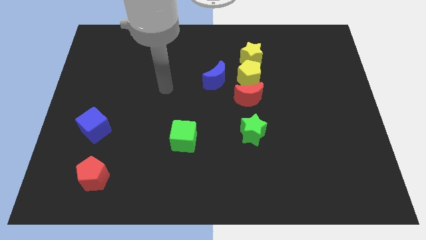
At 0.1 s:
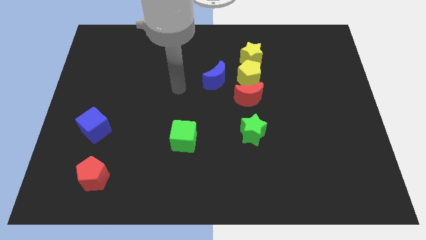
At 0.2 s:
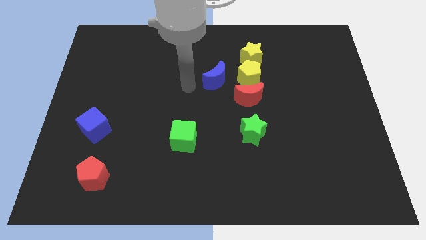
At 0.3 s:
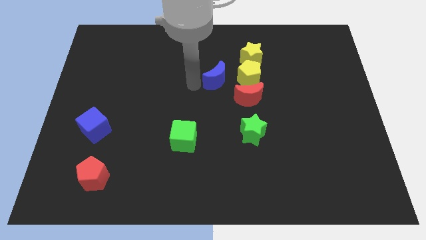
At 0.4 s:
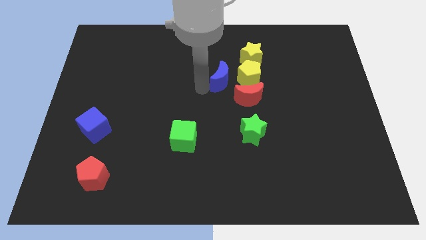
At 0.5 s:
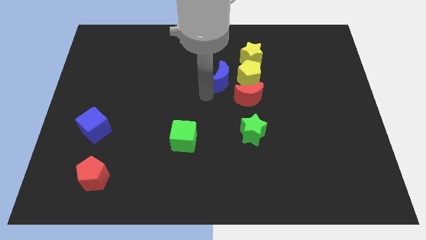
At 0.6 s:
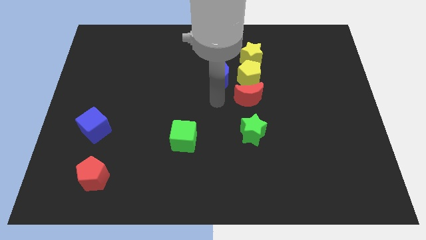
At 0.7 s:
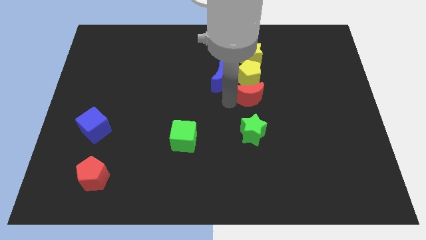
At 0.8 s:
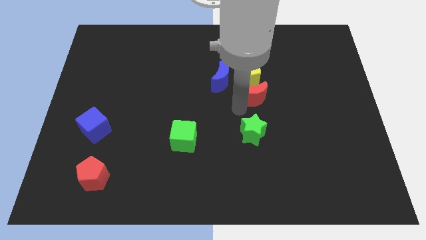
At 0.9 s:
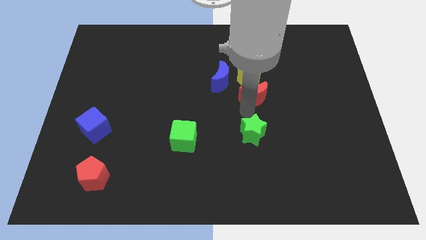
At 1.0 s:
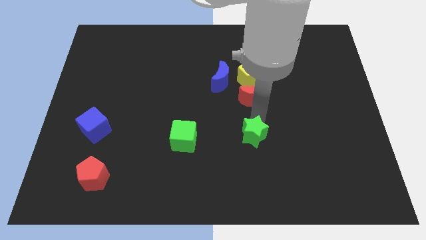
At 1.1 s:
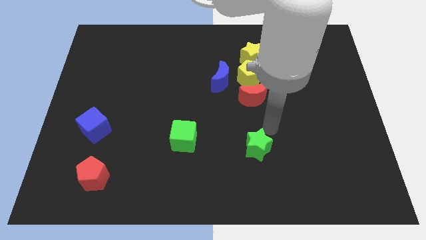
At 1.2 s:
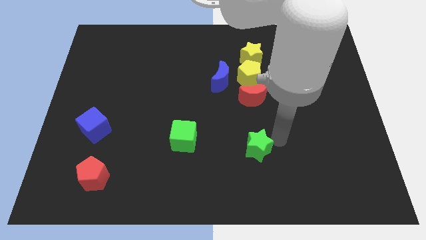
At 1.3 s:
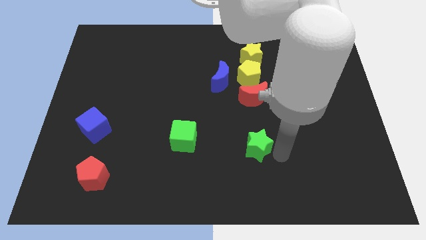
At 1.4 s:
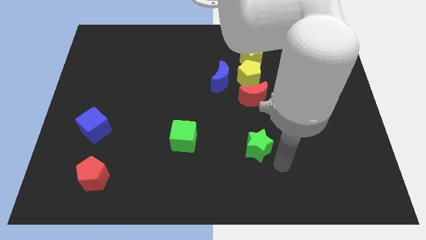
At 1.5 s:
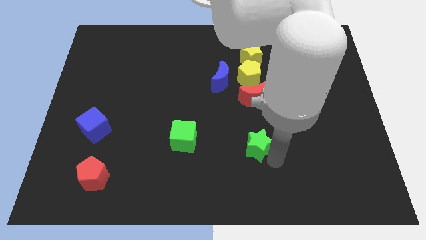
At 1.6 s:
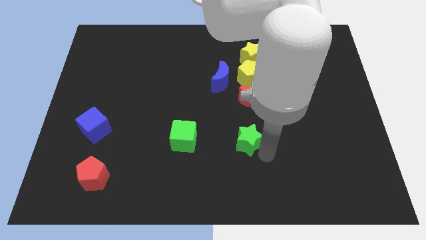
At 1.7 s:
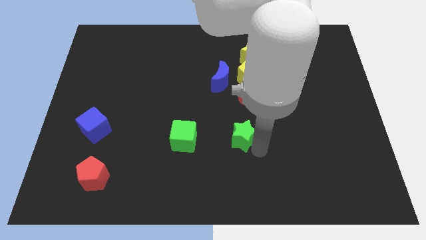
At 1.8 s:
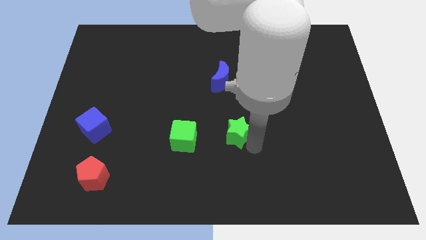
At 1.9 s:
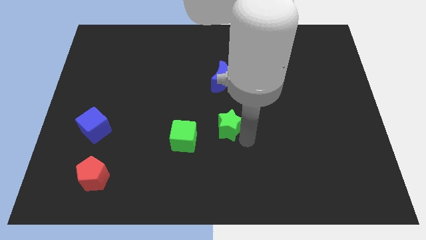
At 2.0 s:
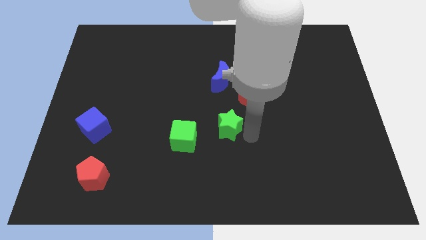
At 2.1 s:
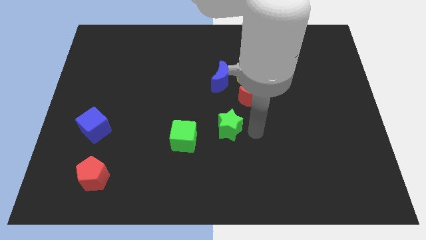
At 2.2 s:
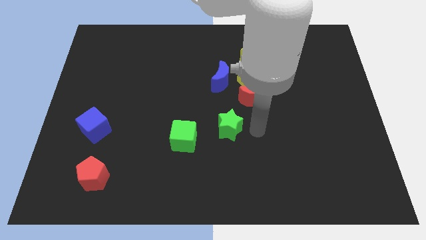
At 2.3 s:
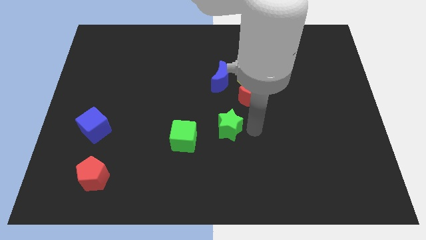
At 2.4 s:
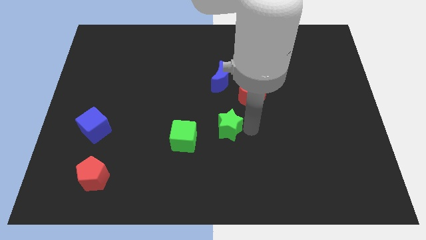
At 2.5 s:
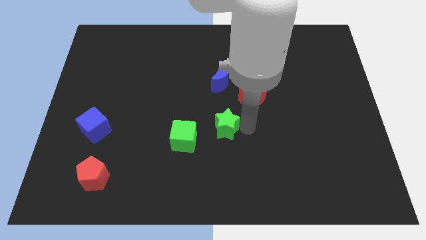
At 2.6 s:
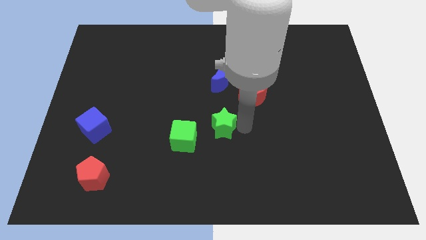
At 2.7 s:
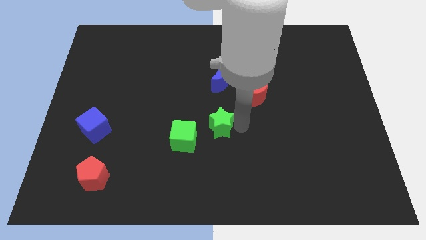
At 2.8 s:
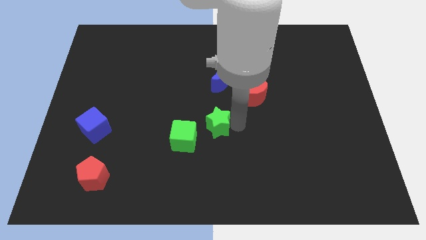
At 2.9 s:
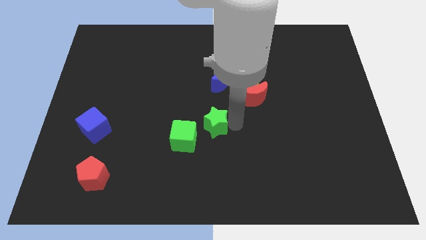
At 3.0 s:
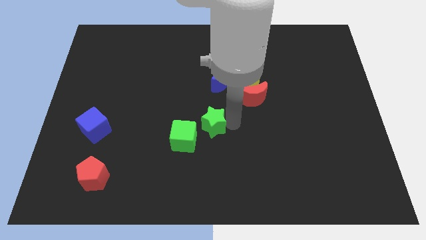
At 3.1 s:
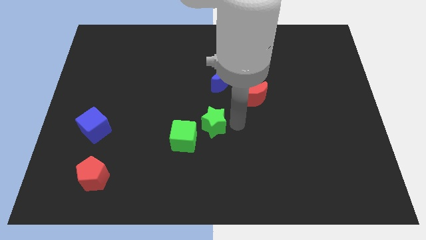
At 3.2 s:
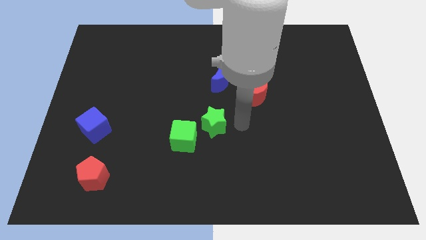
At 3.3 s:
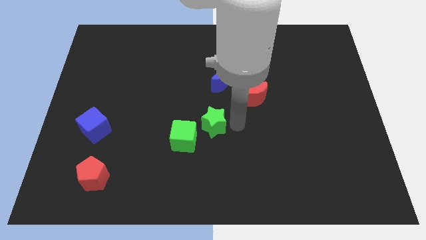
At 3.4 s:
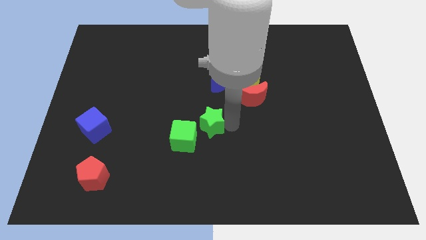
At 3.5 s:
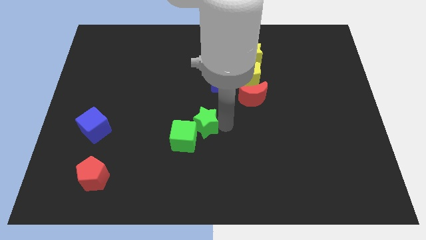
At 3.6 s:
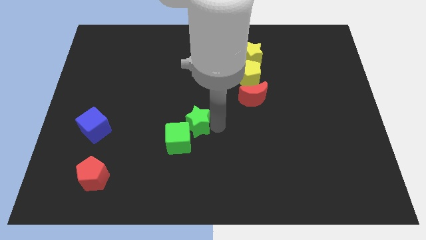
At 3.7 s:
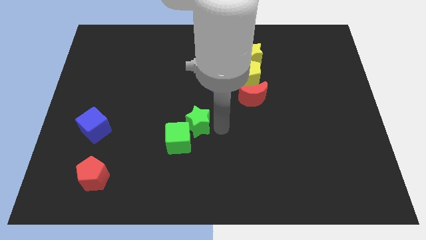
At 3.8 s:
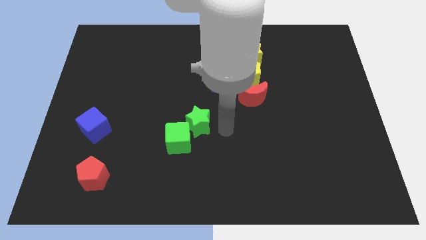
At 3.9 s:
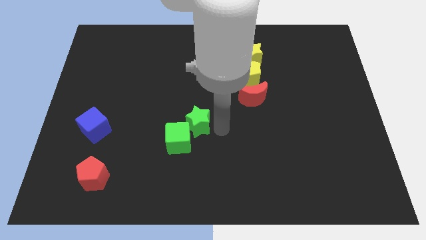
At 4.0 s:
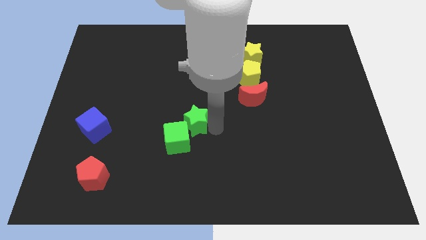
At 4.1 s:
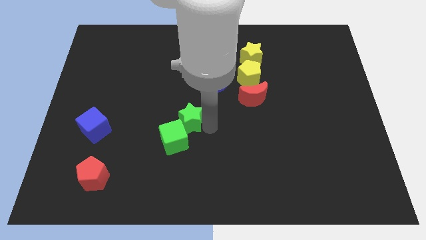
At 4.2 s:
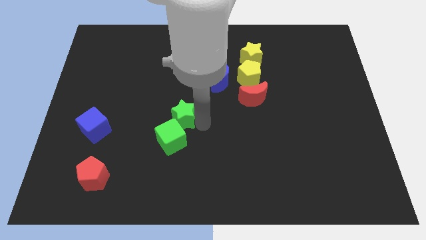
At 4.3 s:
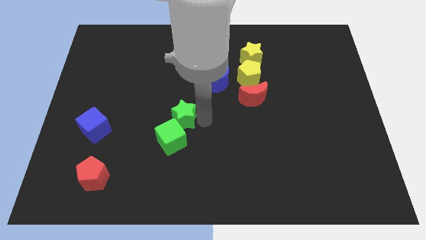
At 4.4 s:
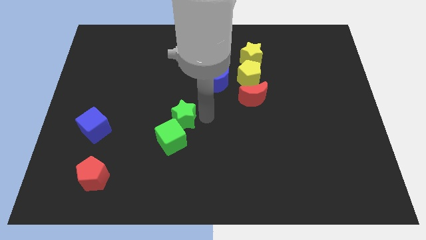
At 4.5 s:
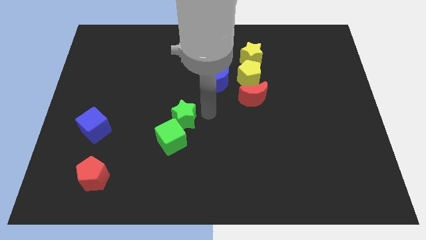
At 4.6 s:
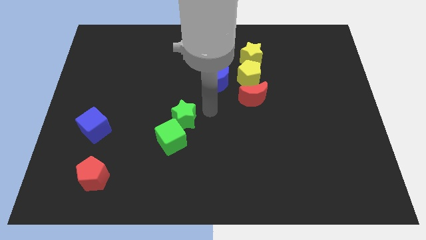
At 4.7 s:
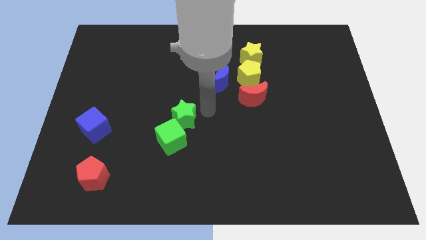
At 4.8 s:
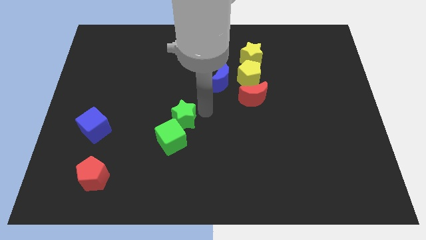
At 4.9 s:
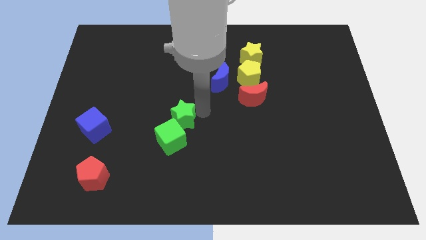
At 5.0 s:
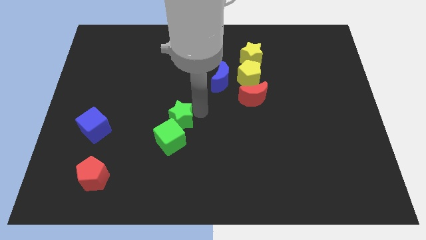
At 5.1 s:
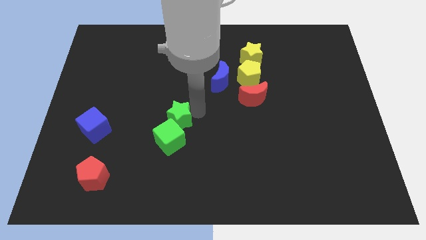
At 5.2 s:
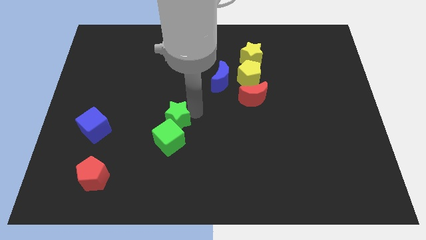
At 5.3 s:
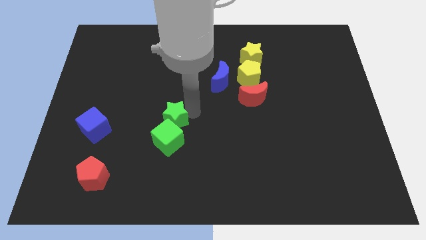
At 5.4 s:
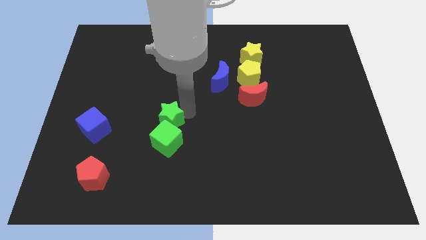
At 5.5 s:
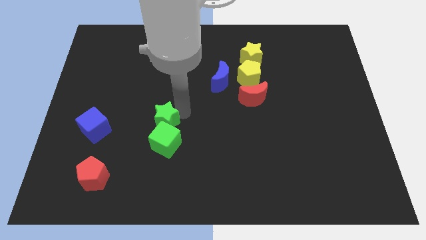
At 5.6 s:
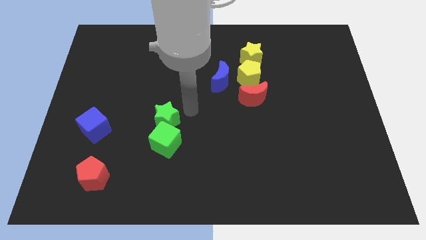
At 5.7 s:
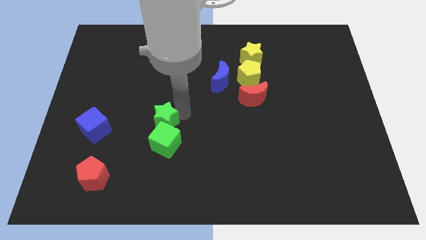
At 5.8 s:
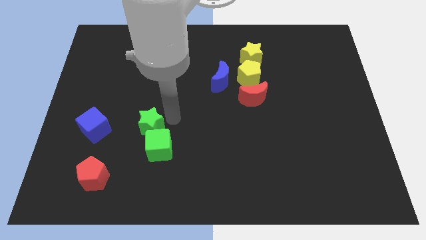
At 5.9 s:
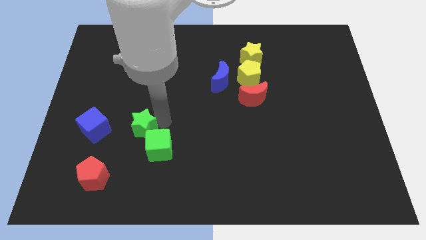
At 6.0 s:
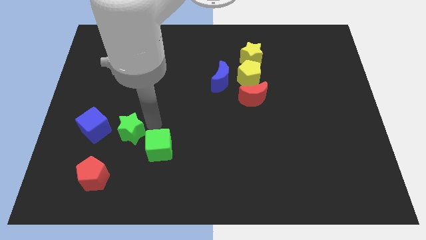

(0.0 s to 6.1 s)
push the green star left of the green cube
